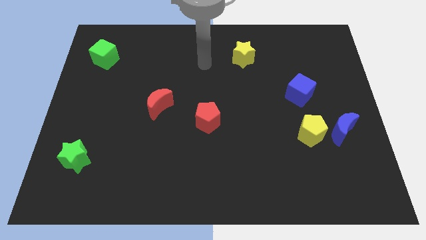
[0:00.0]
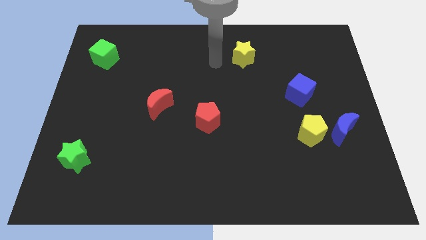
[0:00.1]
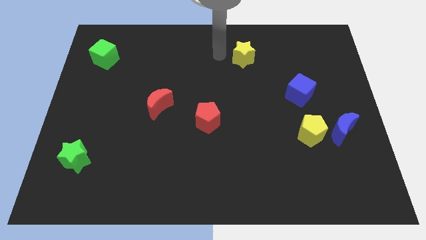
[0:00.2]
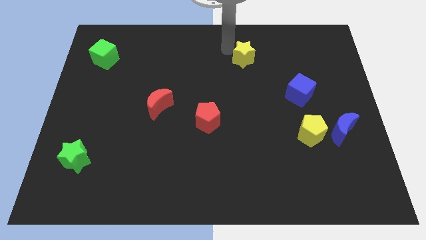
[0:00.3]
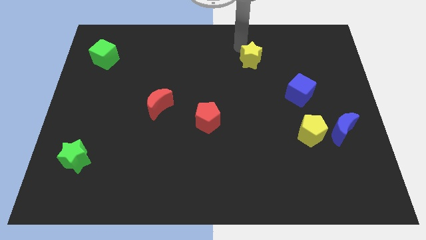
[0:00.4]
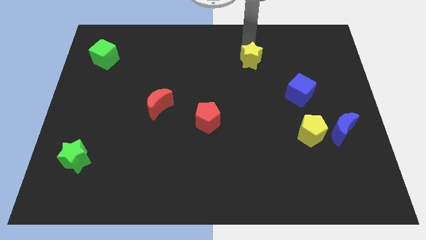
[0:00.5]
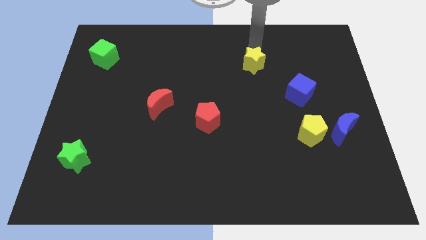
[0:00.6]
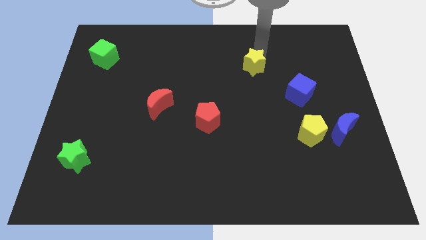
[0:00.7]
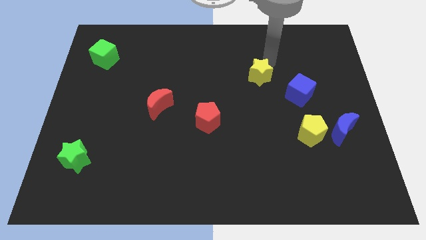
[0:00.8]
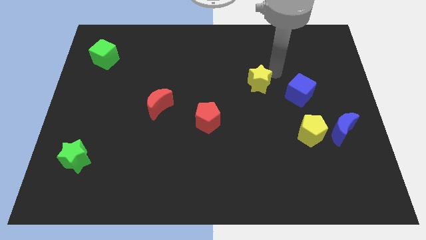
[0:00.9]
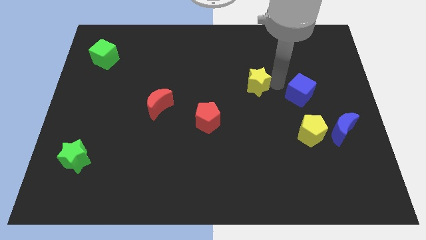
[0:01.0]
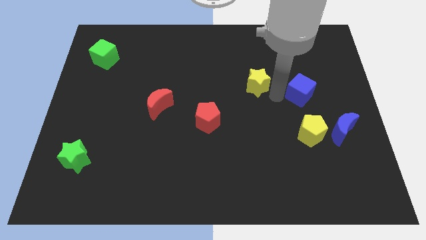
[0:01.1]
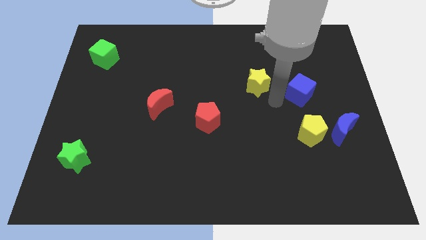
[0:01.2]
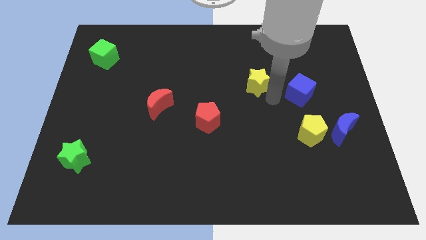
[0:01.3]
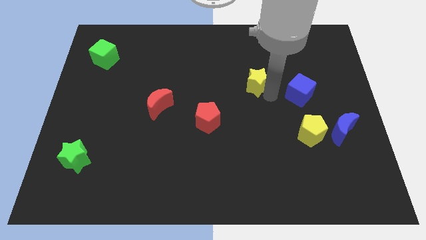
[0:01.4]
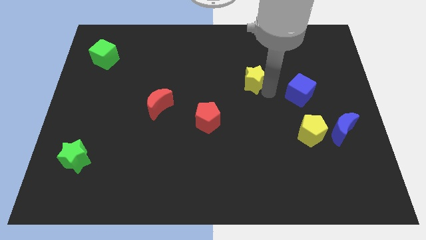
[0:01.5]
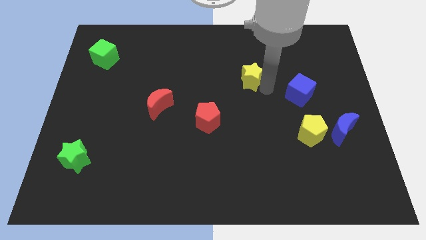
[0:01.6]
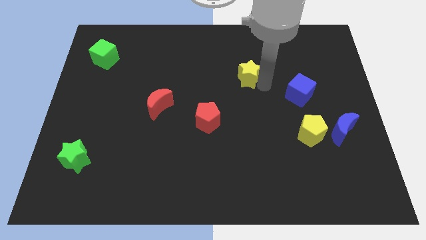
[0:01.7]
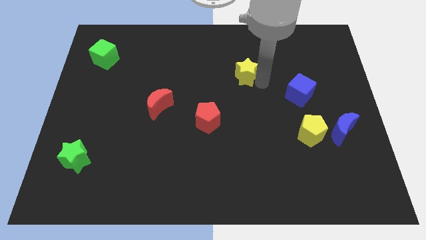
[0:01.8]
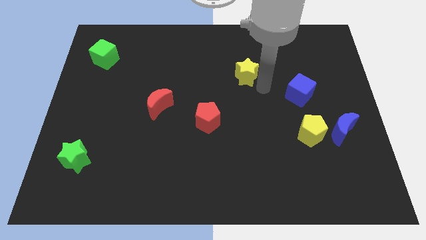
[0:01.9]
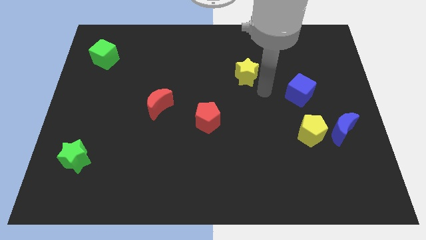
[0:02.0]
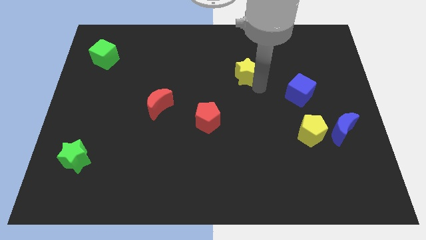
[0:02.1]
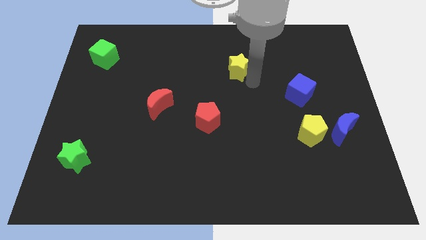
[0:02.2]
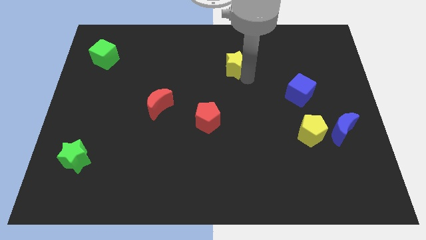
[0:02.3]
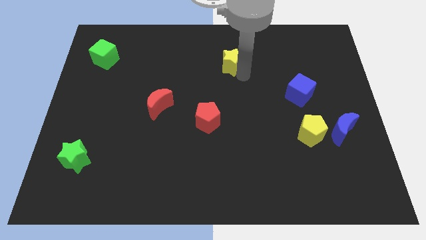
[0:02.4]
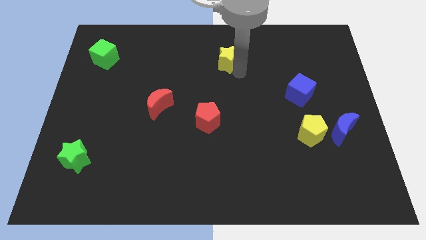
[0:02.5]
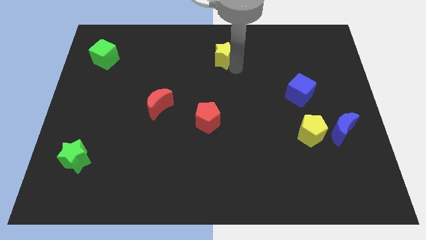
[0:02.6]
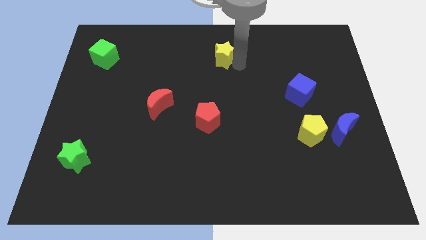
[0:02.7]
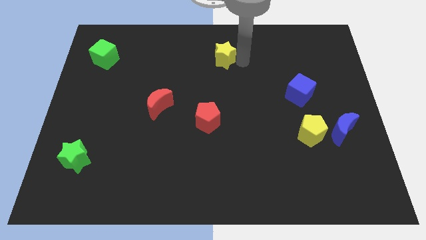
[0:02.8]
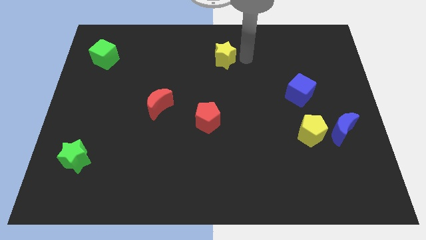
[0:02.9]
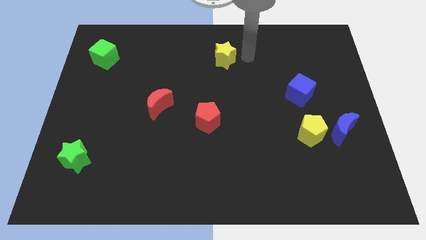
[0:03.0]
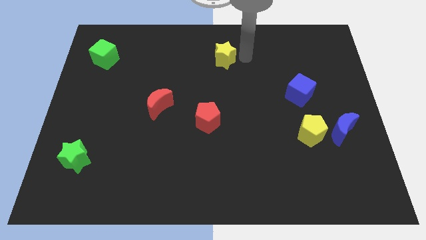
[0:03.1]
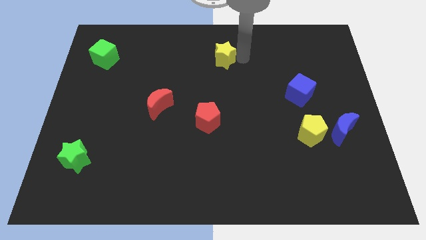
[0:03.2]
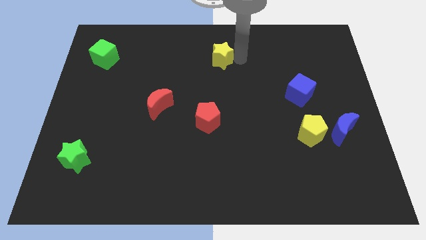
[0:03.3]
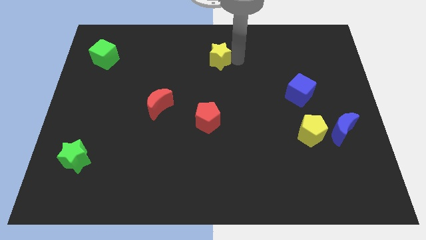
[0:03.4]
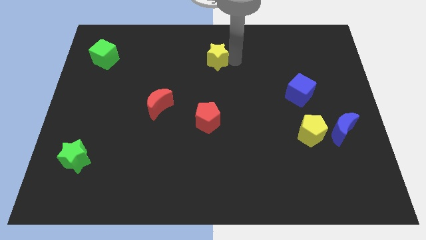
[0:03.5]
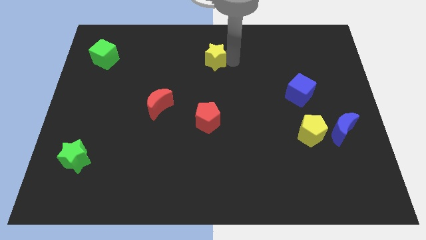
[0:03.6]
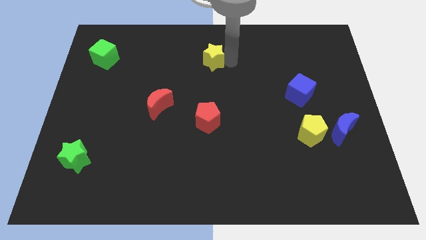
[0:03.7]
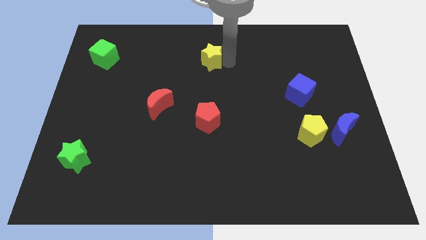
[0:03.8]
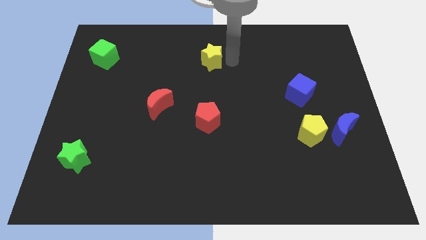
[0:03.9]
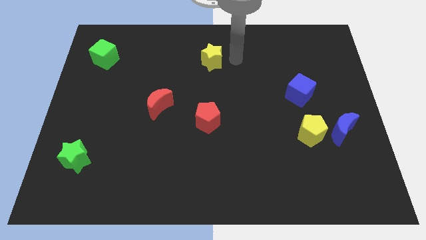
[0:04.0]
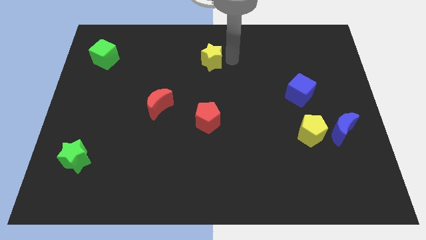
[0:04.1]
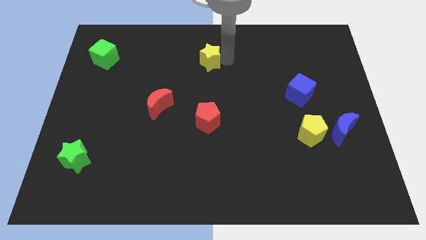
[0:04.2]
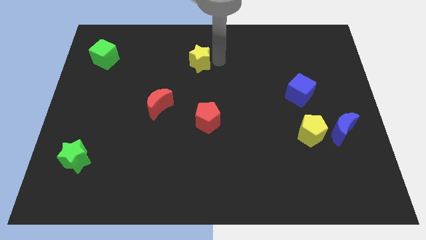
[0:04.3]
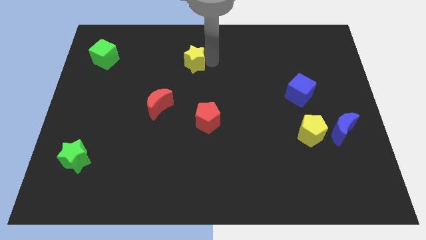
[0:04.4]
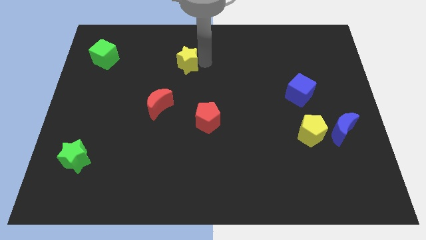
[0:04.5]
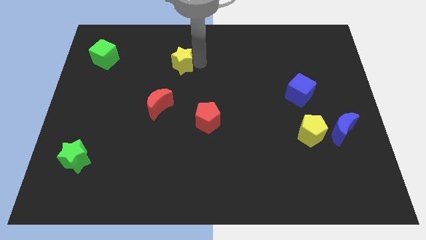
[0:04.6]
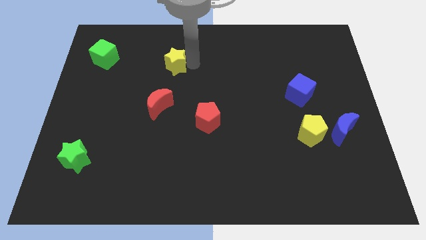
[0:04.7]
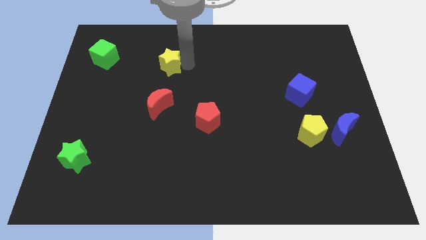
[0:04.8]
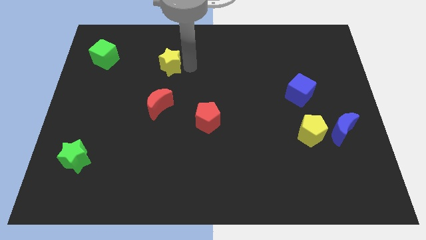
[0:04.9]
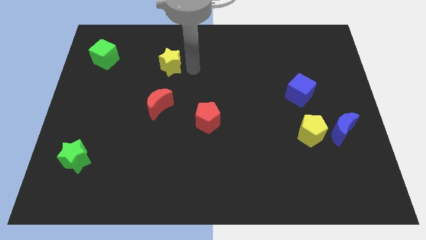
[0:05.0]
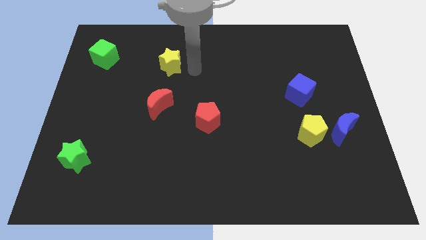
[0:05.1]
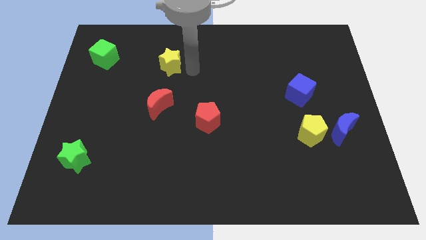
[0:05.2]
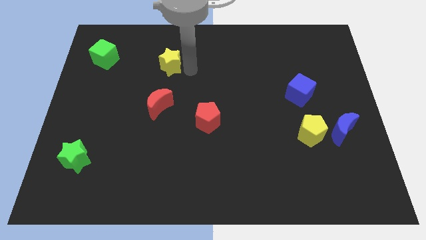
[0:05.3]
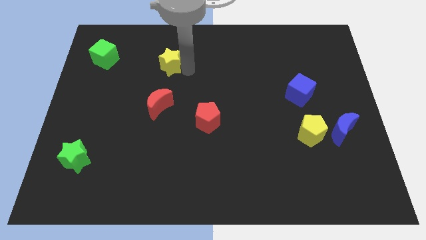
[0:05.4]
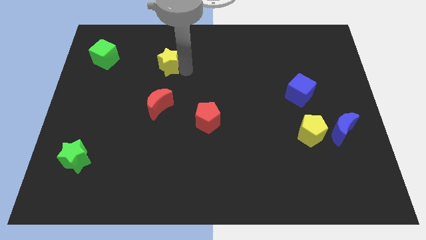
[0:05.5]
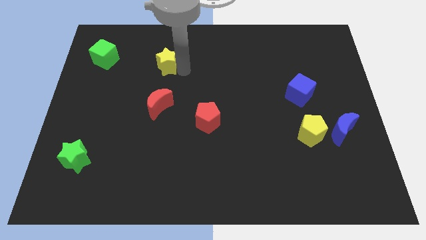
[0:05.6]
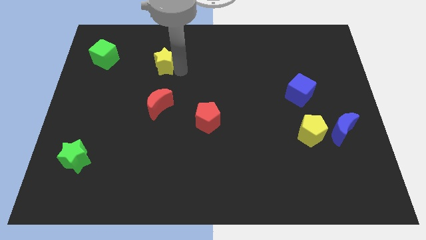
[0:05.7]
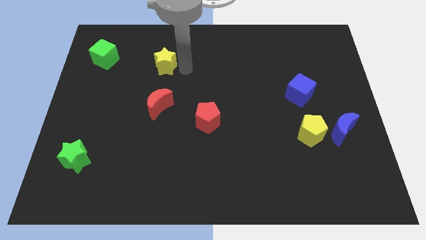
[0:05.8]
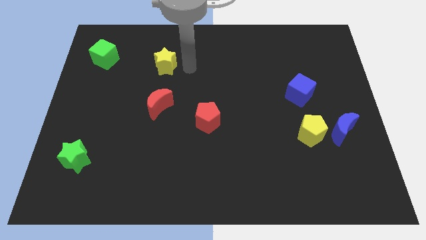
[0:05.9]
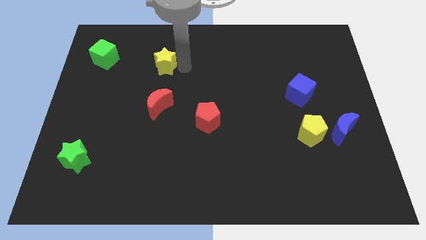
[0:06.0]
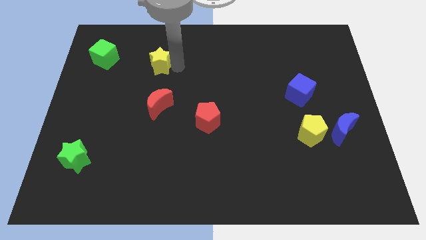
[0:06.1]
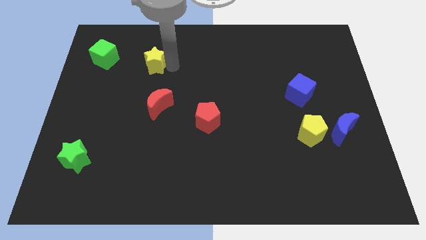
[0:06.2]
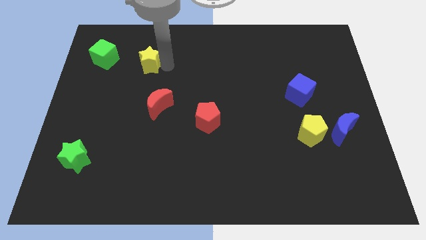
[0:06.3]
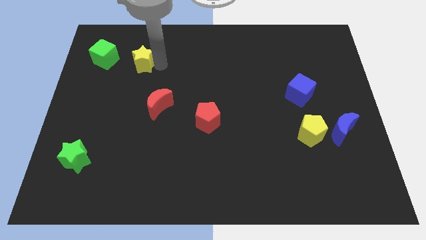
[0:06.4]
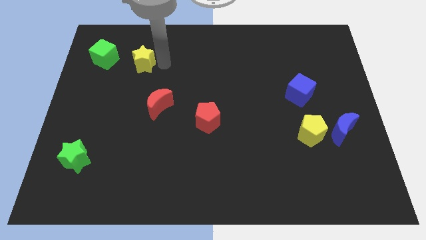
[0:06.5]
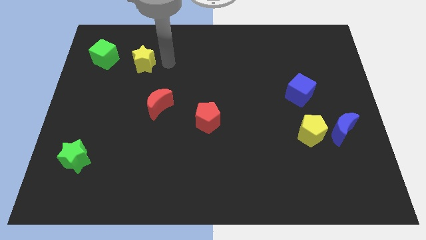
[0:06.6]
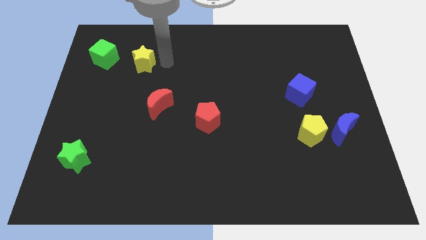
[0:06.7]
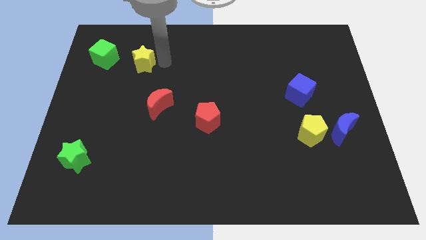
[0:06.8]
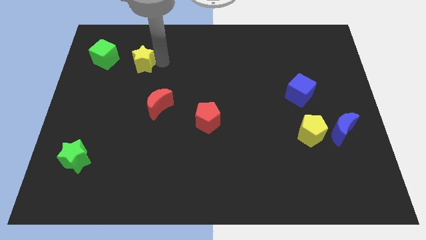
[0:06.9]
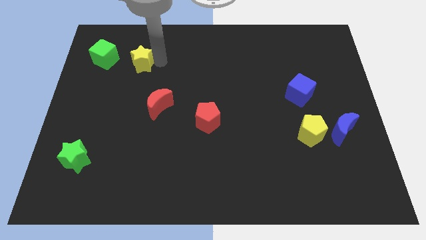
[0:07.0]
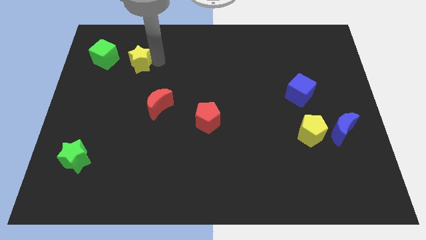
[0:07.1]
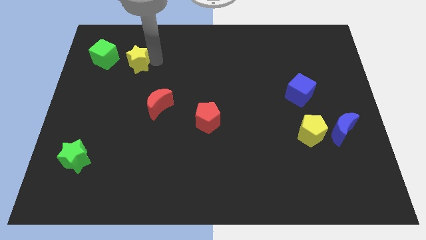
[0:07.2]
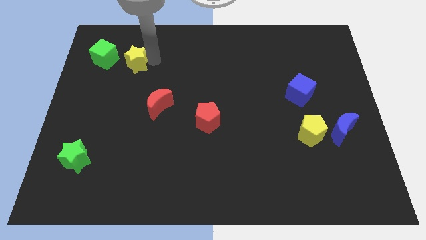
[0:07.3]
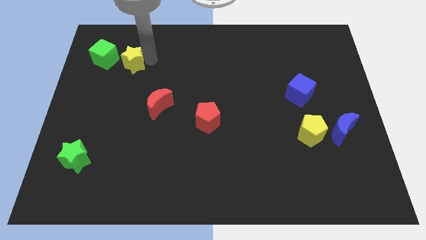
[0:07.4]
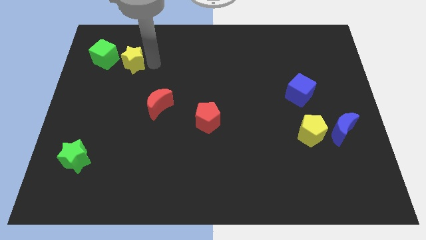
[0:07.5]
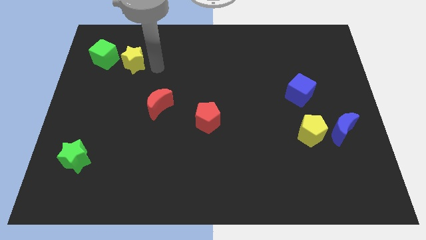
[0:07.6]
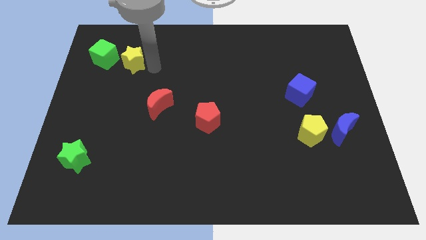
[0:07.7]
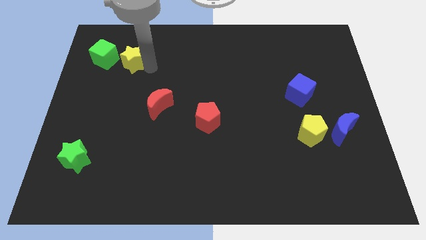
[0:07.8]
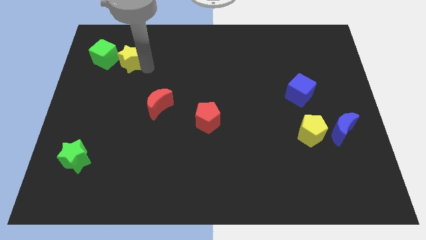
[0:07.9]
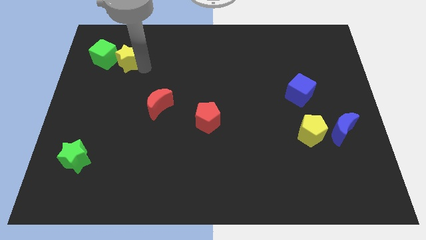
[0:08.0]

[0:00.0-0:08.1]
slide the yellow star close to the green cube
